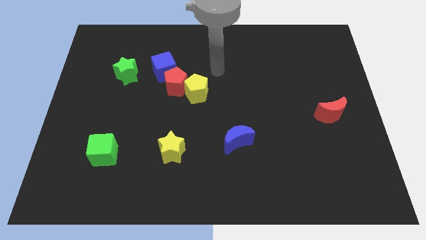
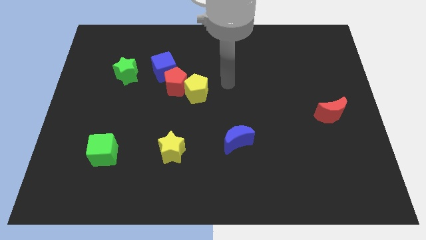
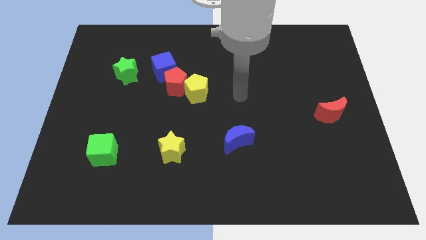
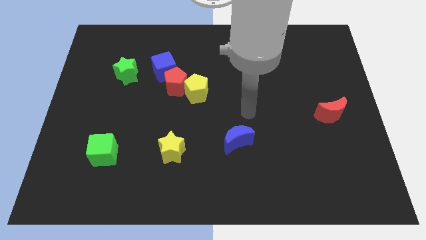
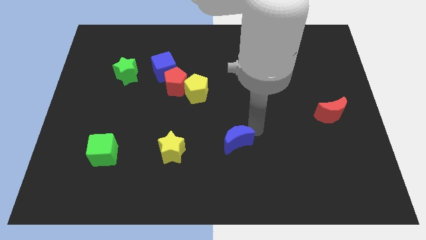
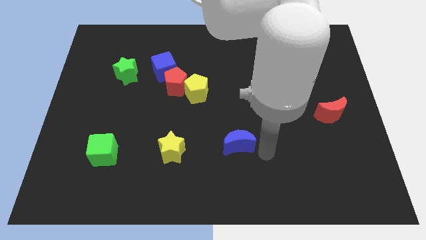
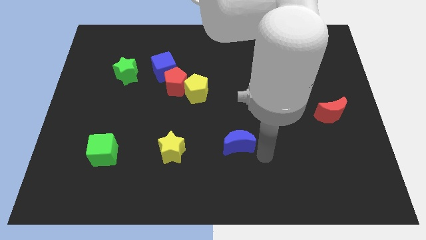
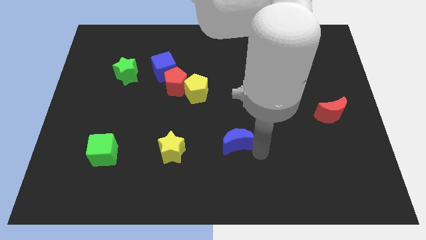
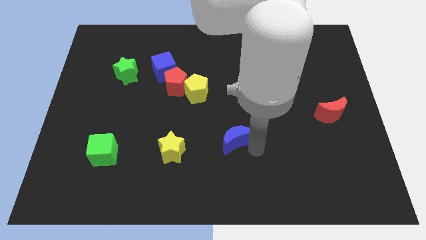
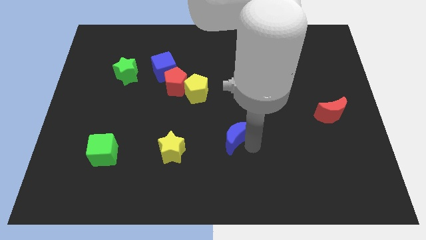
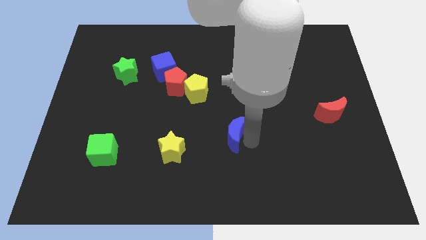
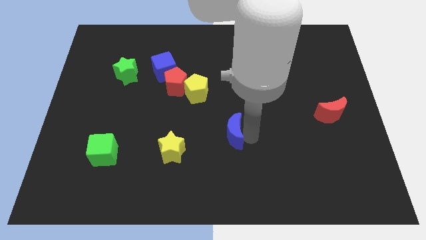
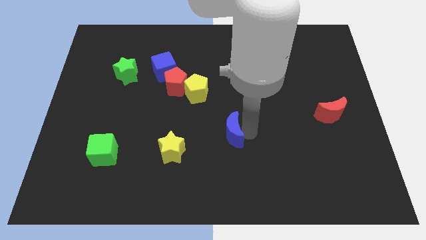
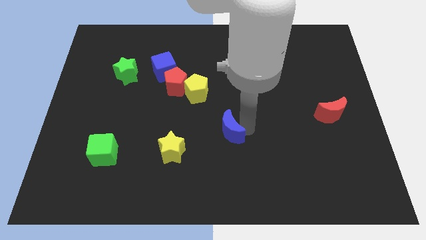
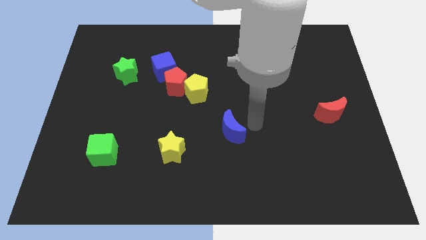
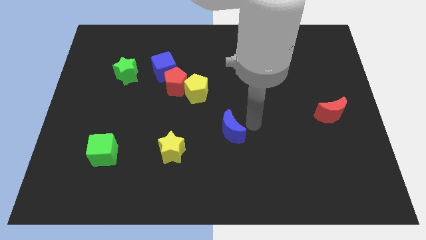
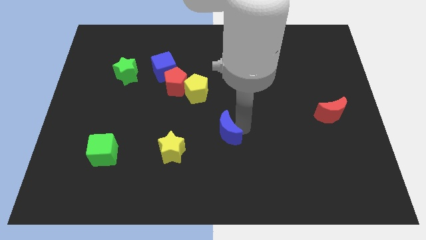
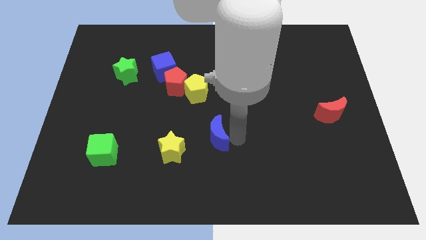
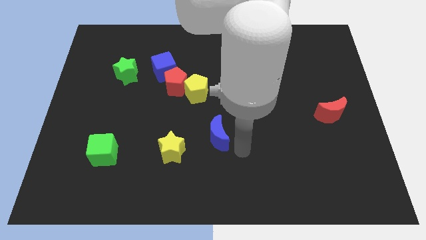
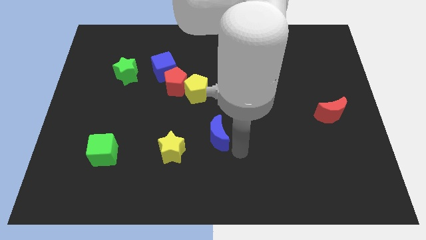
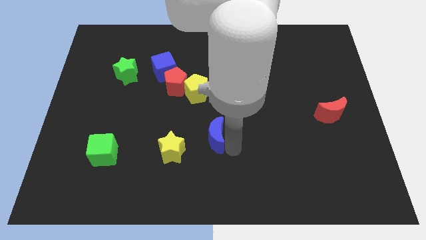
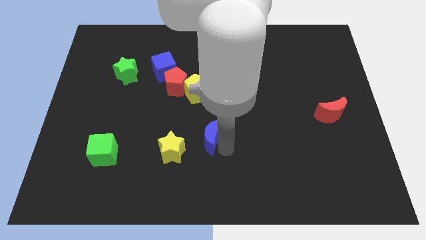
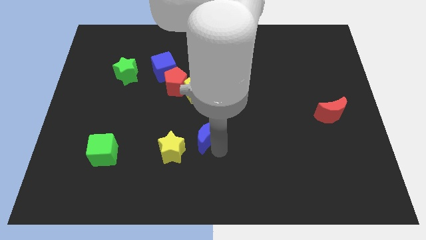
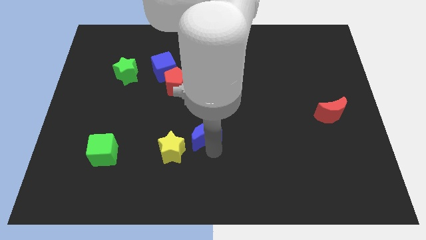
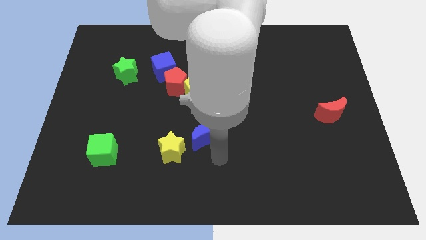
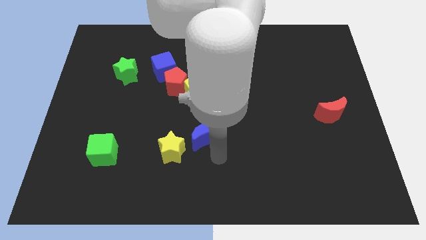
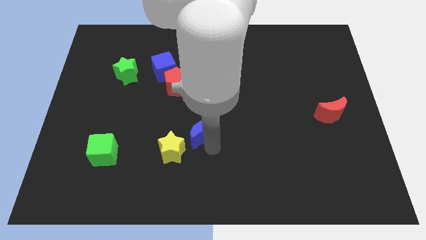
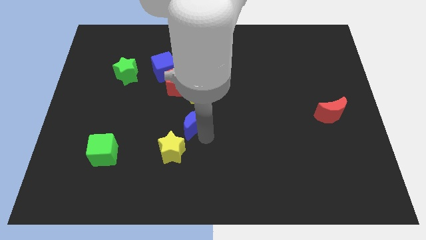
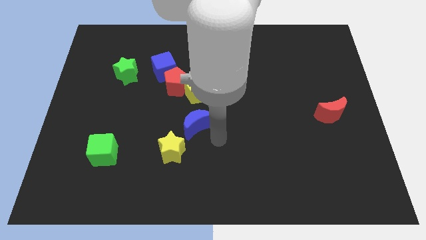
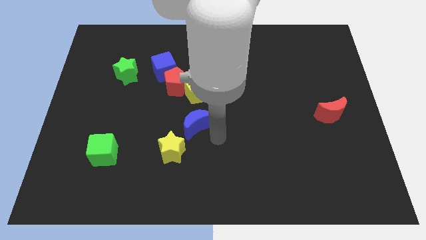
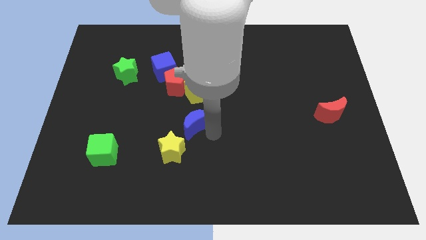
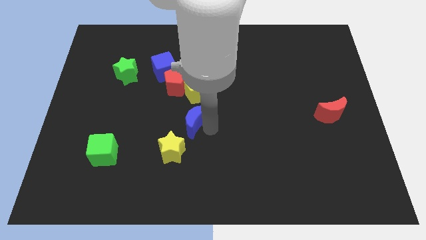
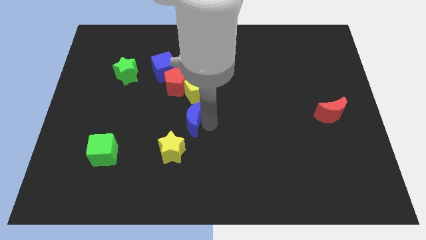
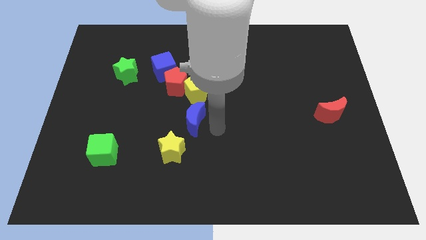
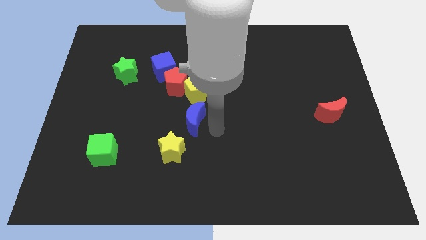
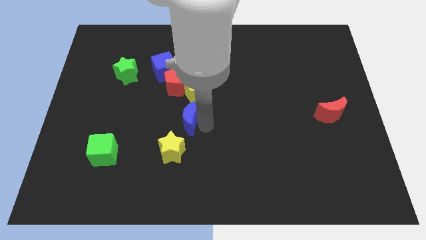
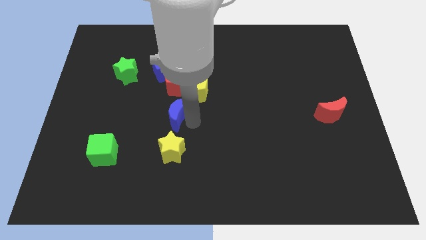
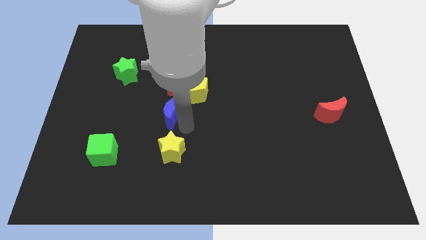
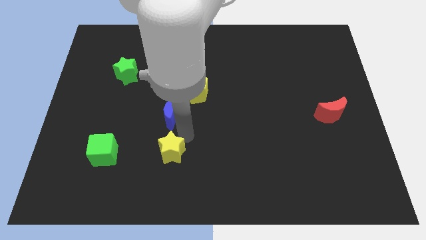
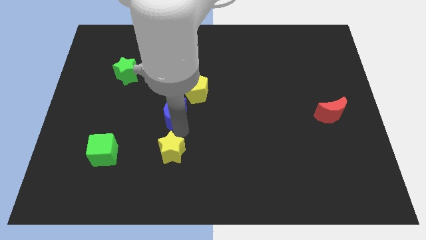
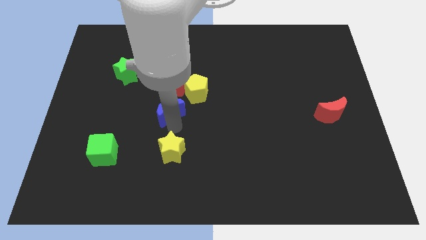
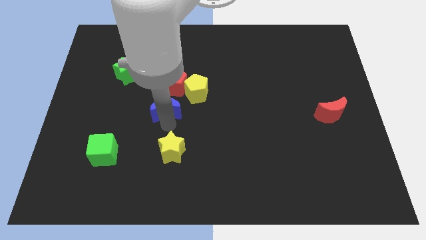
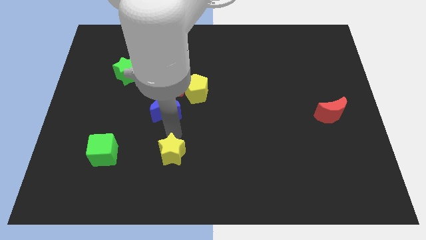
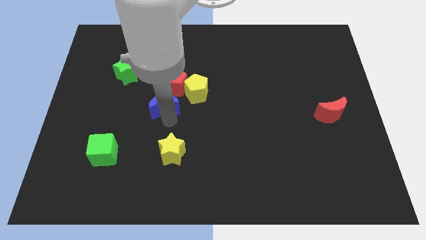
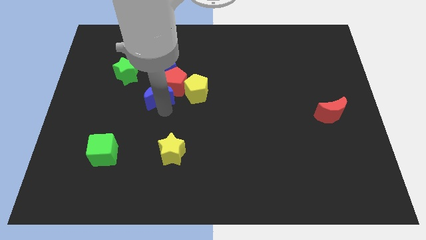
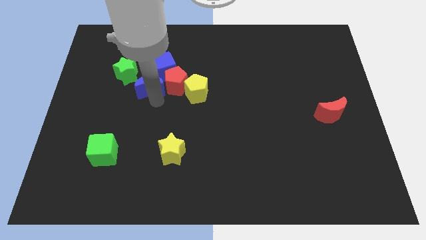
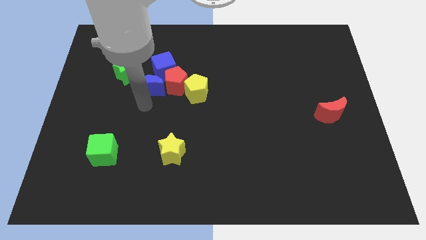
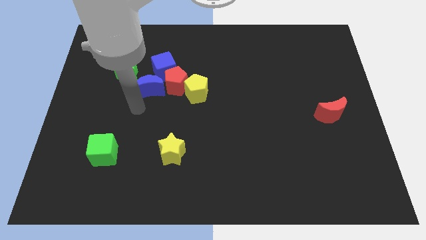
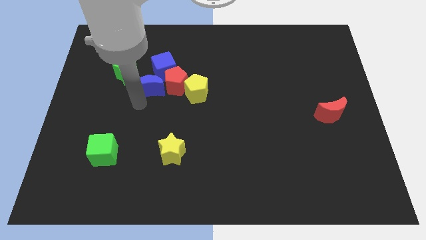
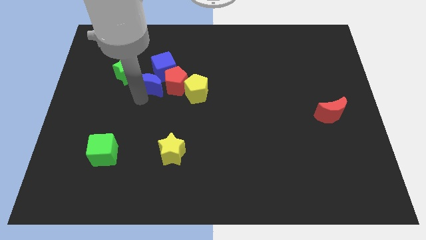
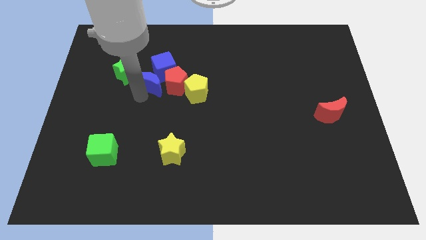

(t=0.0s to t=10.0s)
slide the blue moon close to the blue cube

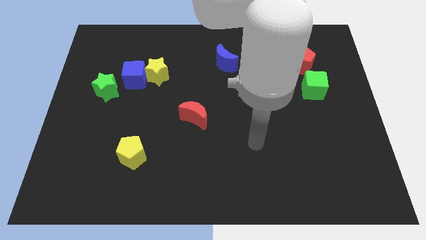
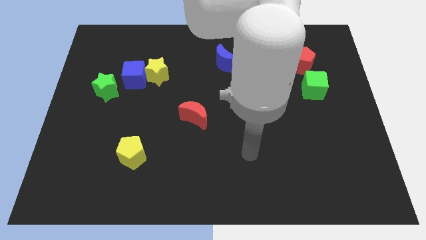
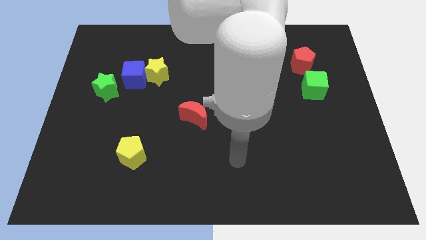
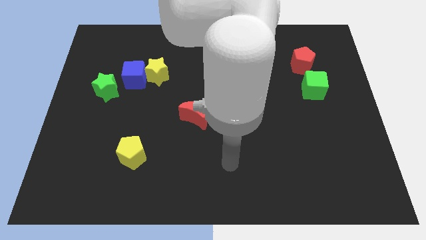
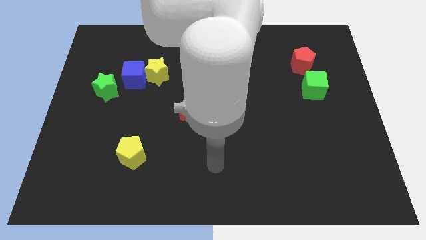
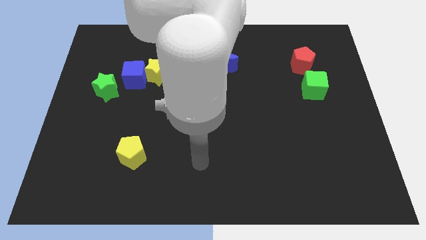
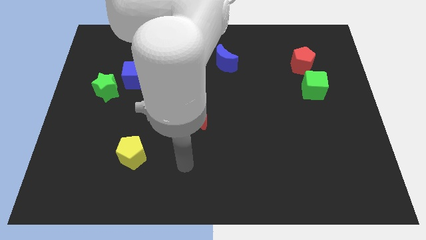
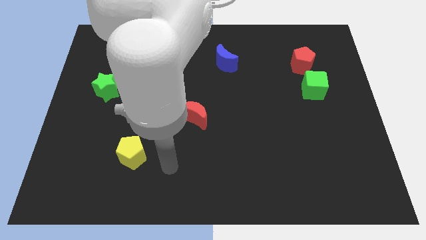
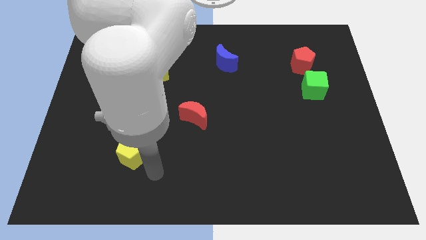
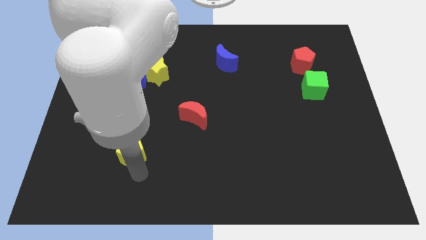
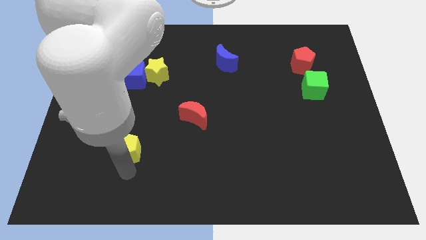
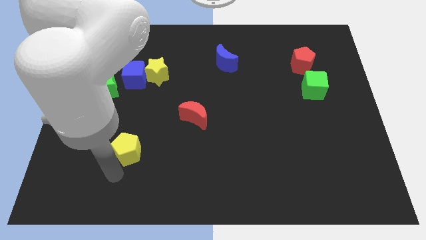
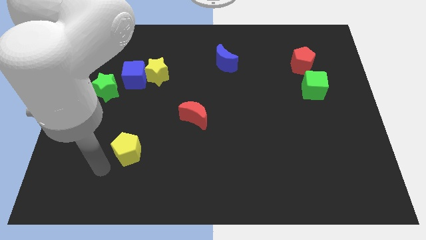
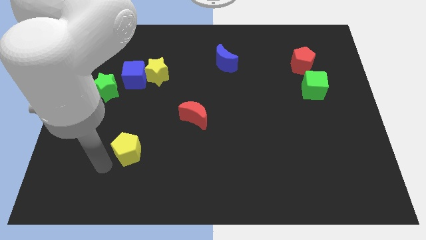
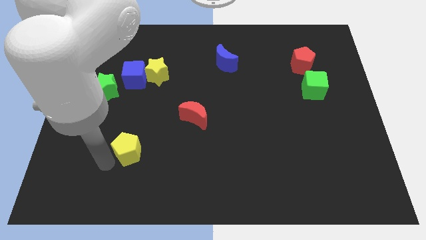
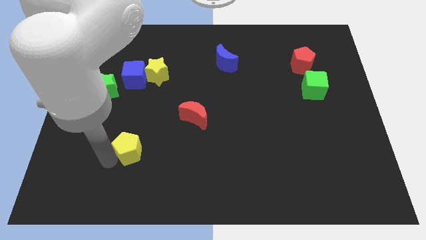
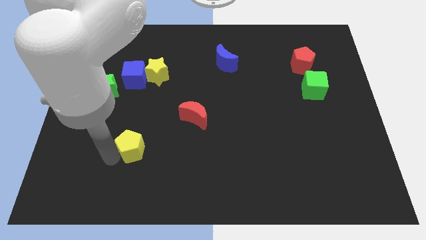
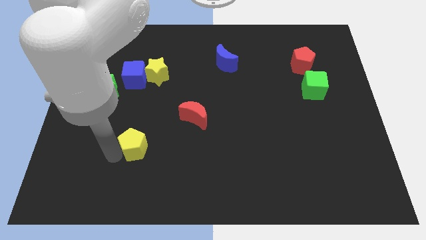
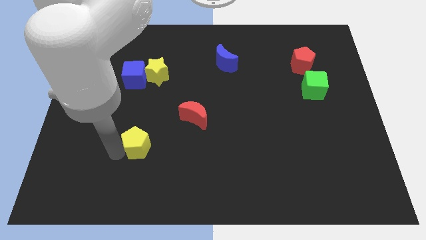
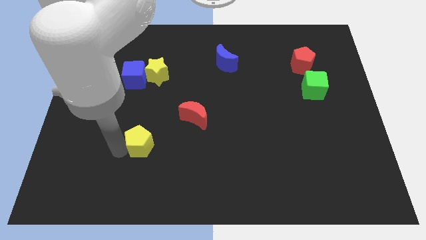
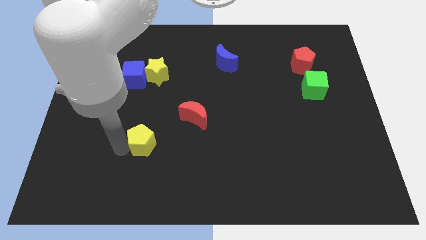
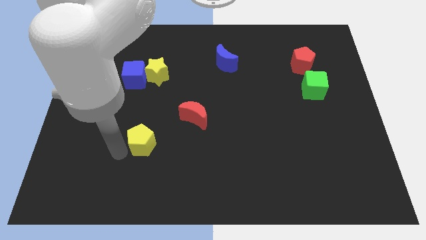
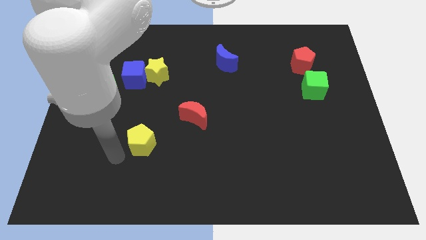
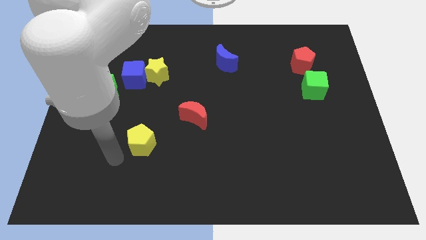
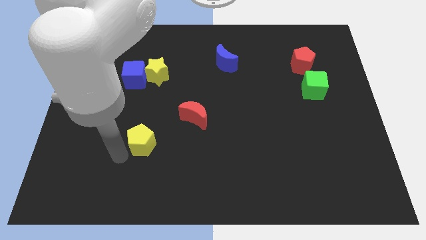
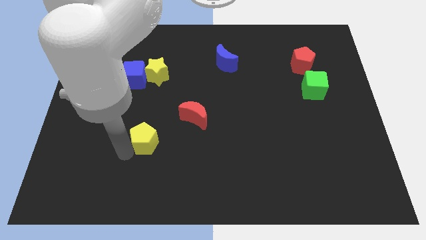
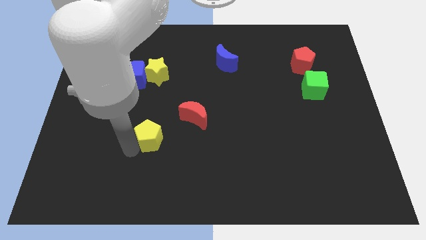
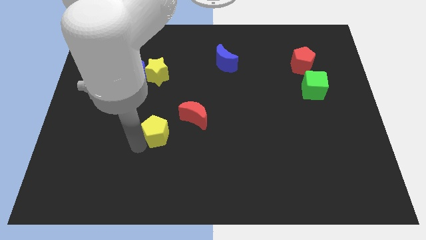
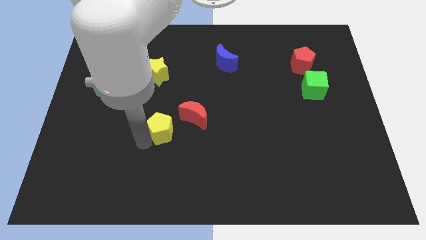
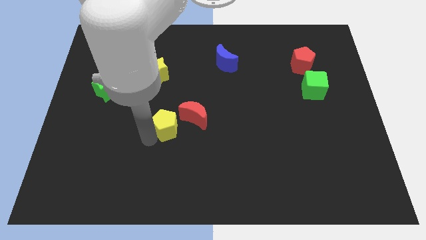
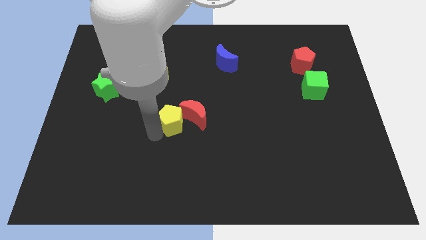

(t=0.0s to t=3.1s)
move the yellow pentagon close to the red moon
